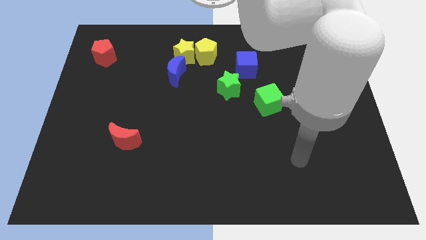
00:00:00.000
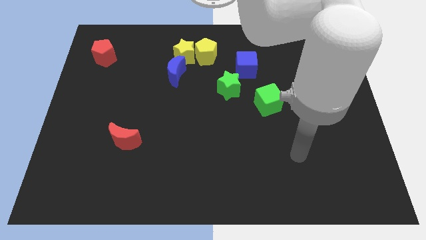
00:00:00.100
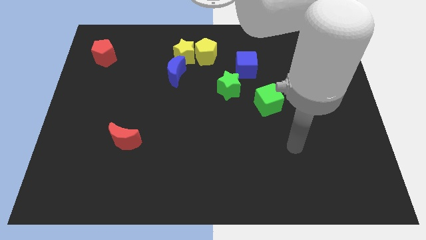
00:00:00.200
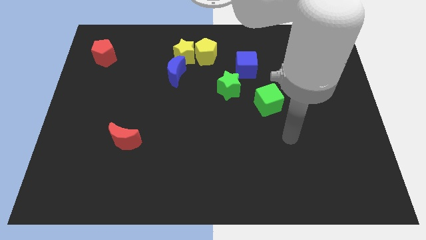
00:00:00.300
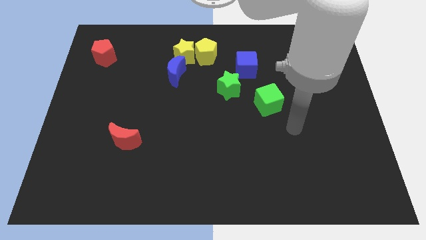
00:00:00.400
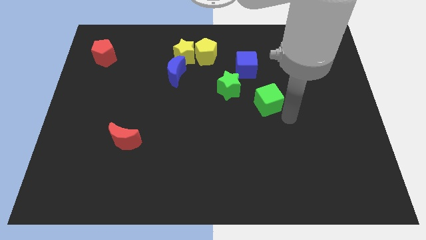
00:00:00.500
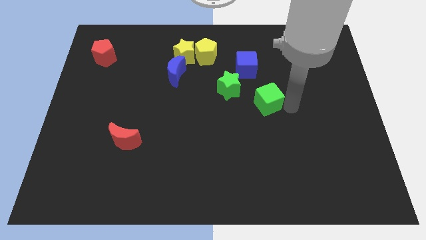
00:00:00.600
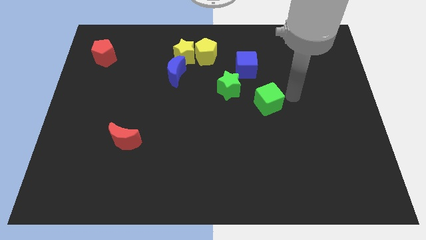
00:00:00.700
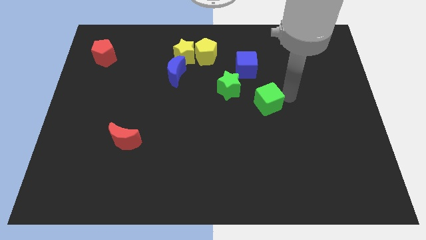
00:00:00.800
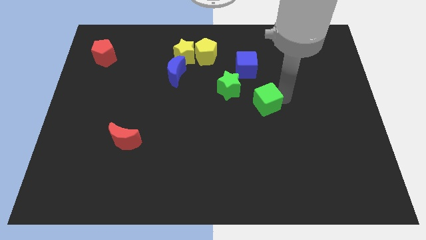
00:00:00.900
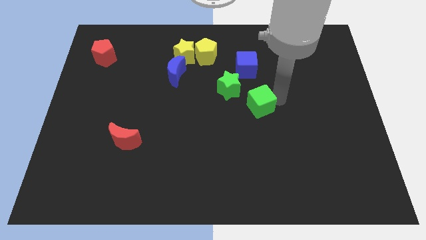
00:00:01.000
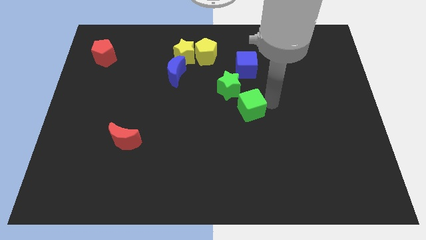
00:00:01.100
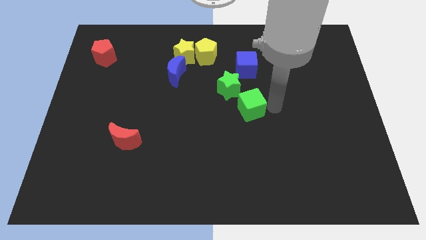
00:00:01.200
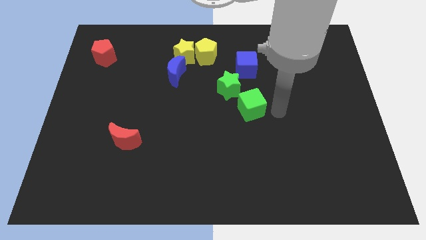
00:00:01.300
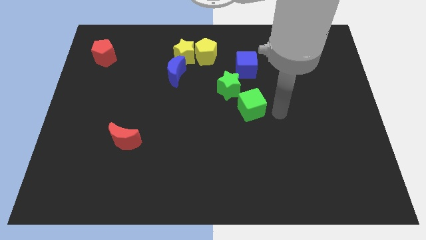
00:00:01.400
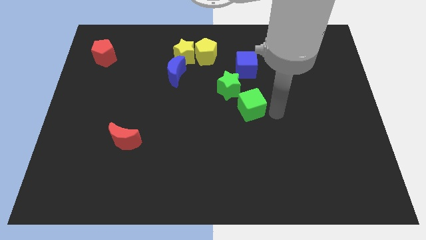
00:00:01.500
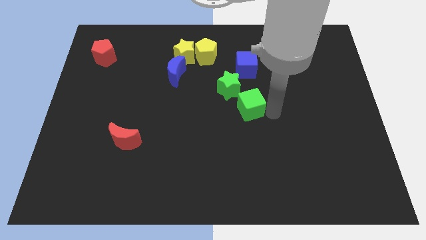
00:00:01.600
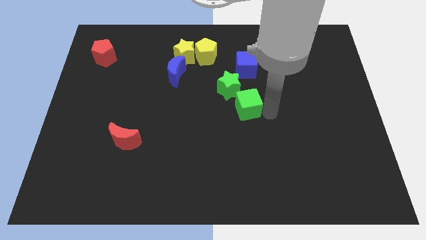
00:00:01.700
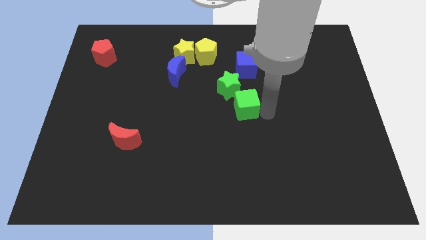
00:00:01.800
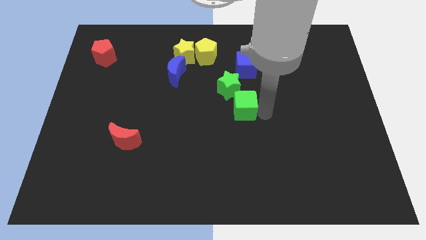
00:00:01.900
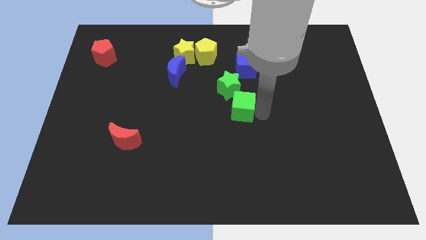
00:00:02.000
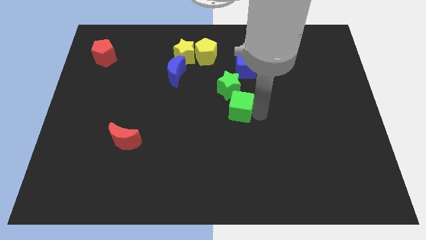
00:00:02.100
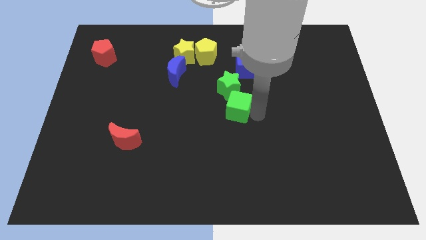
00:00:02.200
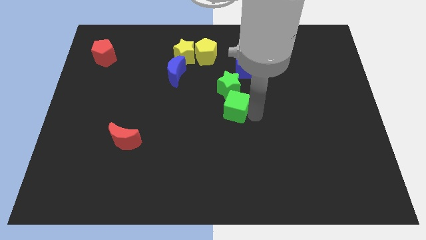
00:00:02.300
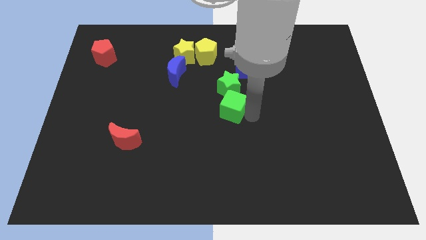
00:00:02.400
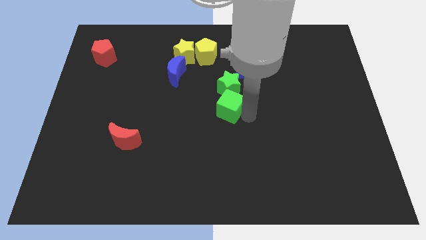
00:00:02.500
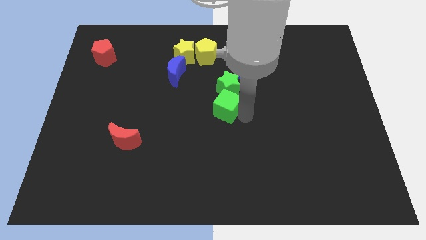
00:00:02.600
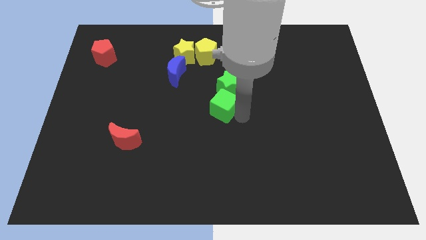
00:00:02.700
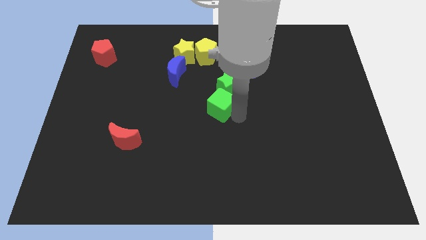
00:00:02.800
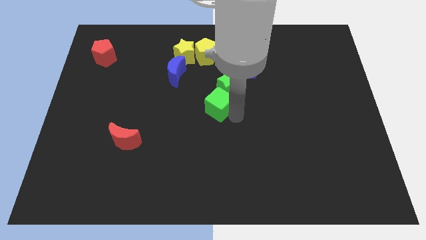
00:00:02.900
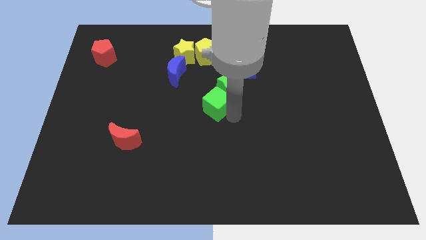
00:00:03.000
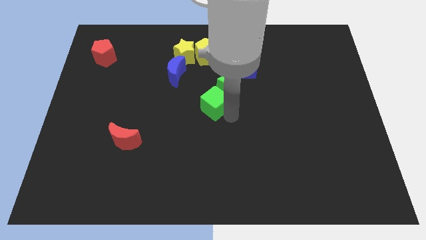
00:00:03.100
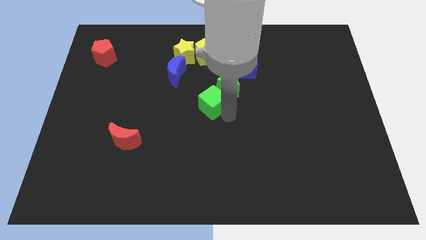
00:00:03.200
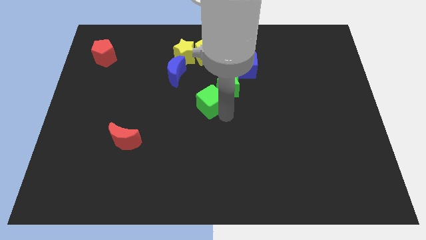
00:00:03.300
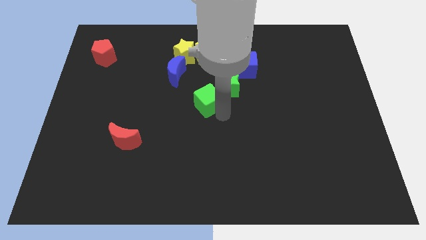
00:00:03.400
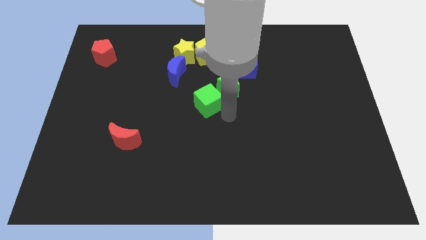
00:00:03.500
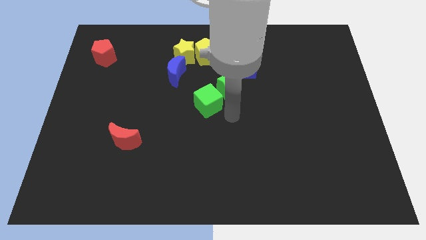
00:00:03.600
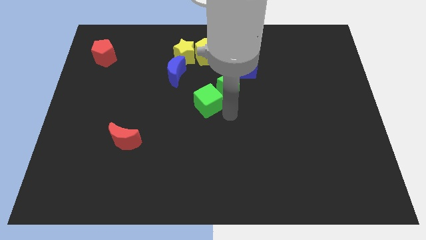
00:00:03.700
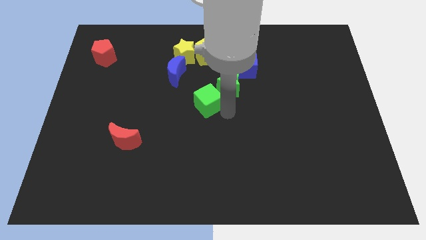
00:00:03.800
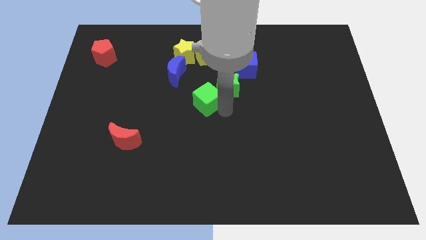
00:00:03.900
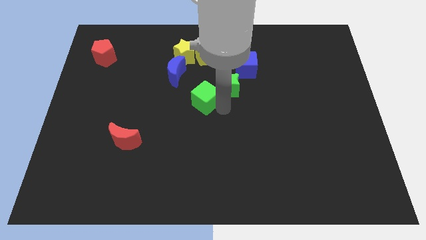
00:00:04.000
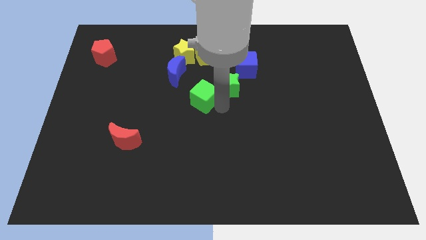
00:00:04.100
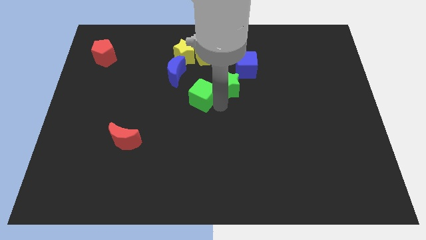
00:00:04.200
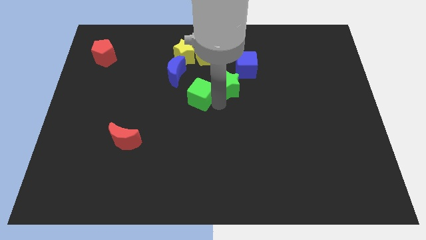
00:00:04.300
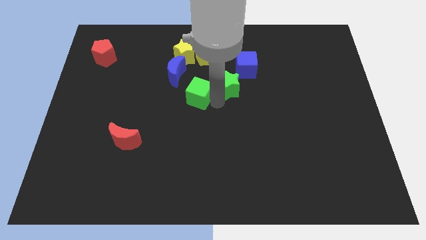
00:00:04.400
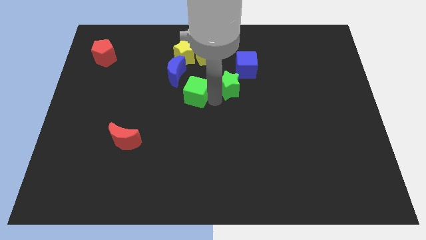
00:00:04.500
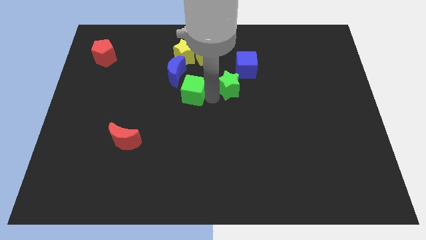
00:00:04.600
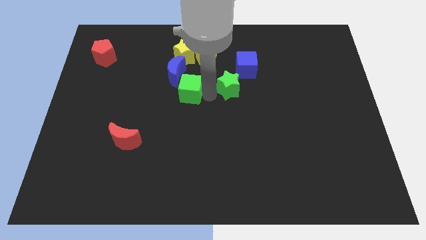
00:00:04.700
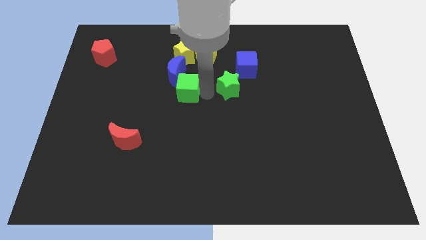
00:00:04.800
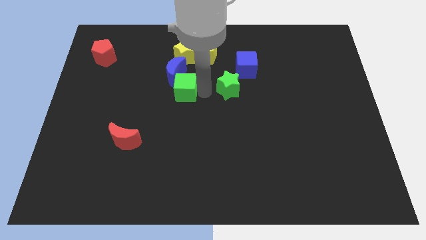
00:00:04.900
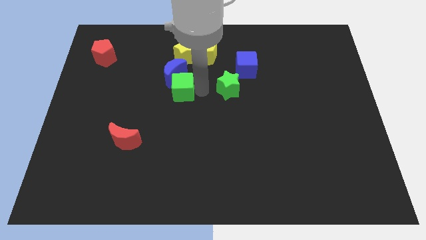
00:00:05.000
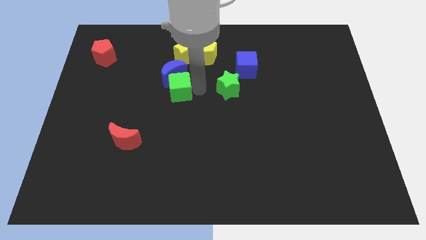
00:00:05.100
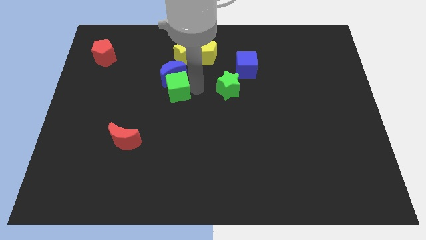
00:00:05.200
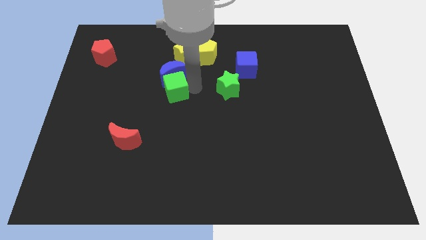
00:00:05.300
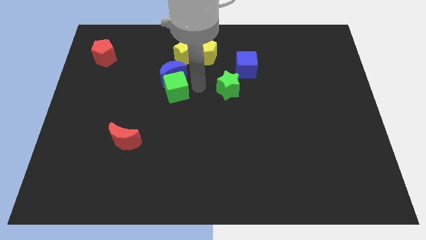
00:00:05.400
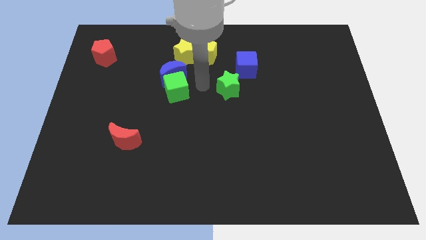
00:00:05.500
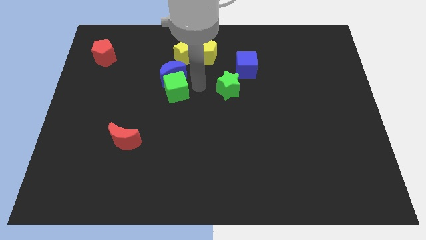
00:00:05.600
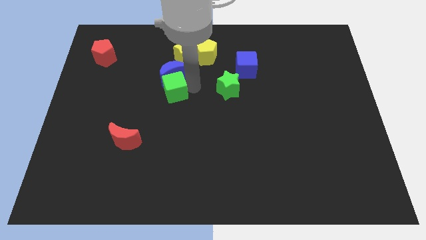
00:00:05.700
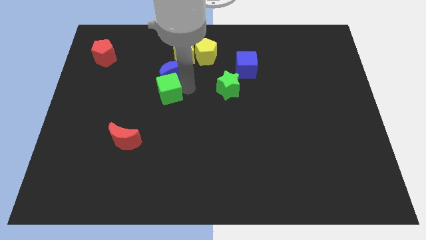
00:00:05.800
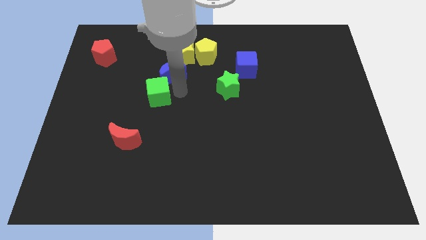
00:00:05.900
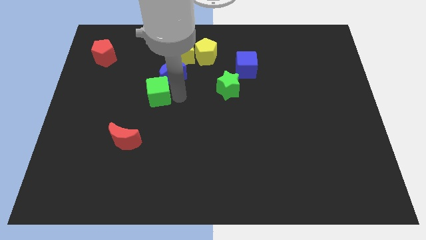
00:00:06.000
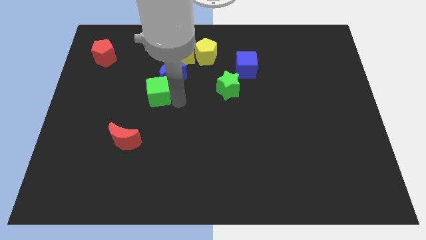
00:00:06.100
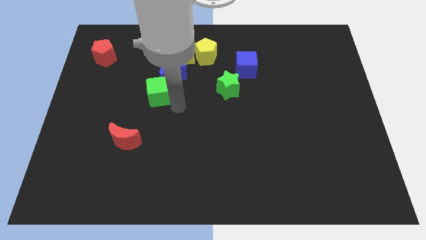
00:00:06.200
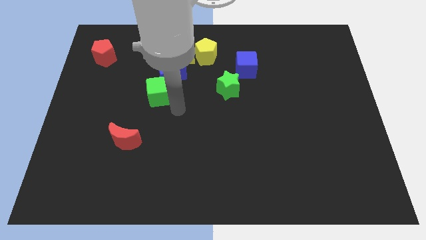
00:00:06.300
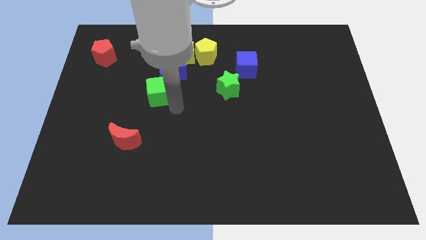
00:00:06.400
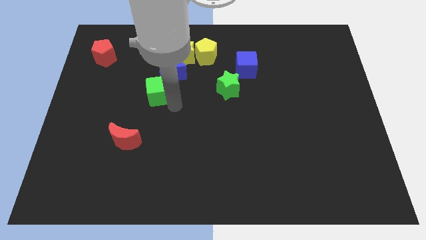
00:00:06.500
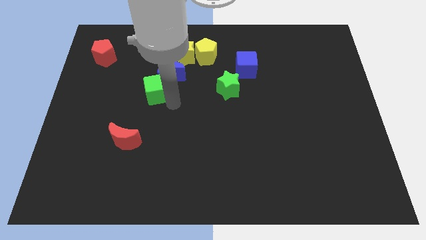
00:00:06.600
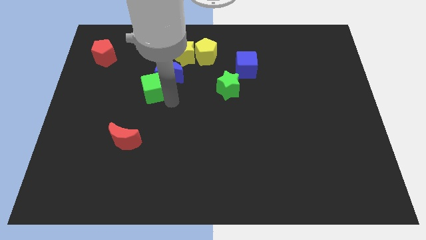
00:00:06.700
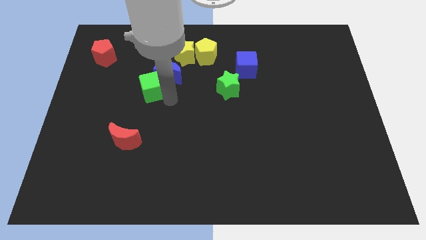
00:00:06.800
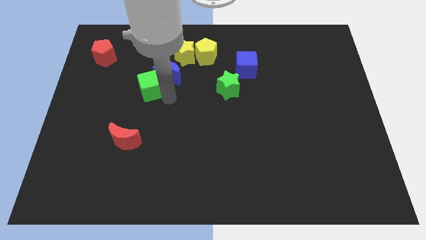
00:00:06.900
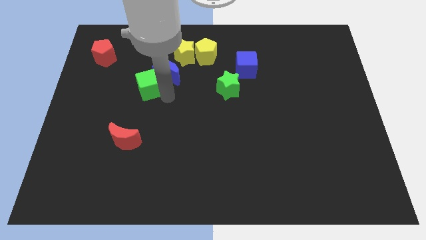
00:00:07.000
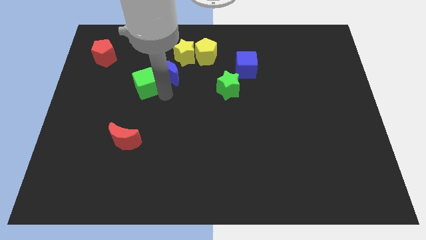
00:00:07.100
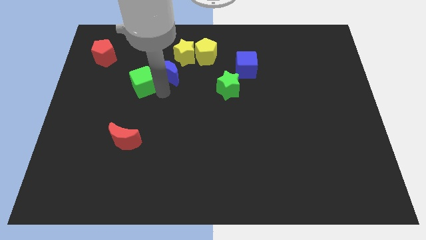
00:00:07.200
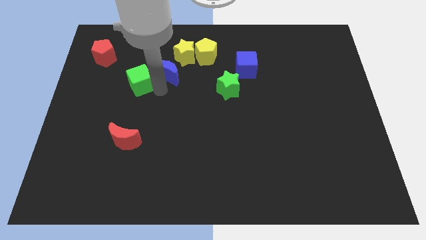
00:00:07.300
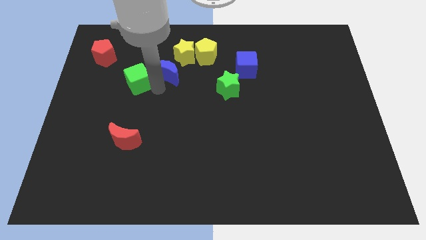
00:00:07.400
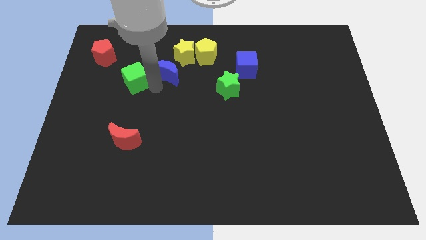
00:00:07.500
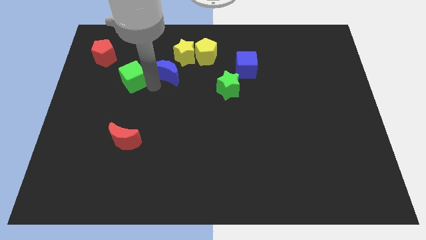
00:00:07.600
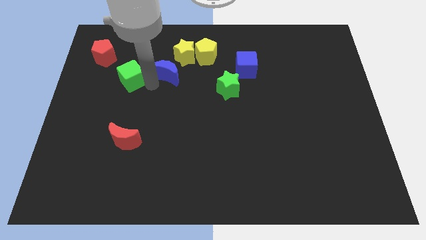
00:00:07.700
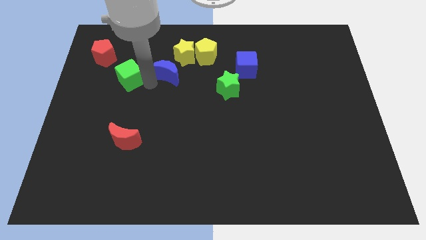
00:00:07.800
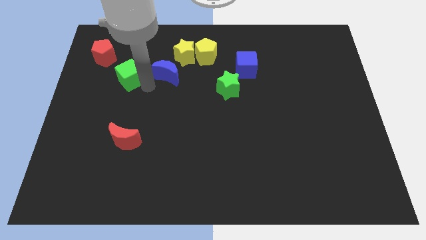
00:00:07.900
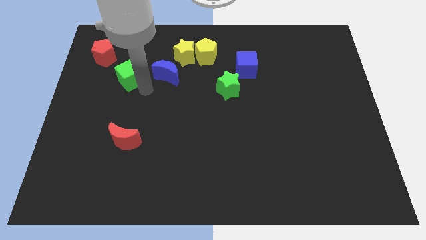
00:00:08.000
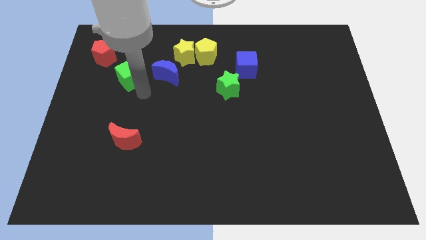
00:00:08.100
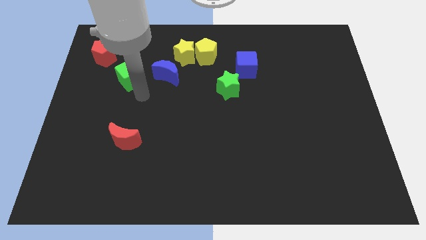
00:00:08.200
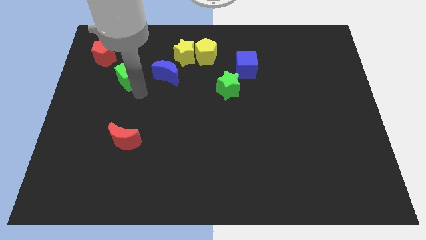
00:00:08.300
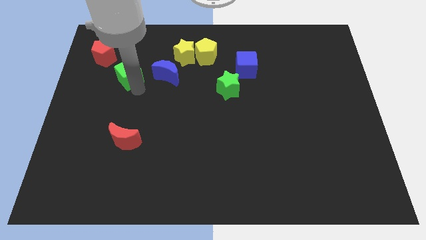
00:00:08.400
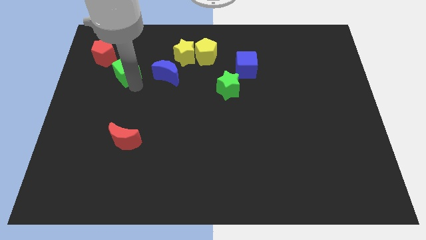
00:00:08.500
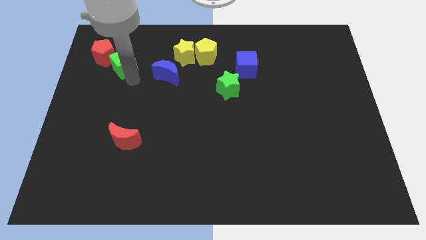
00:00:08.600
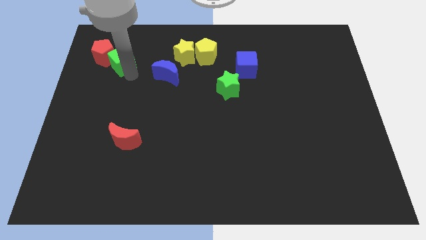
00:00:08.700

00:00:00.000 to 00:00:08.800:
push the green cube next to the red pentagon
